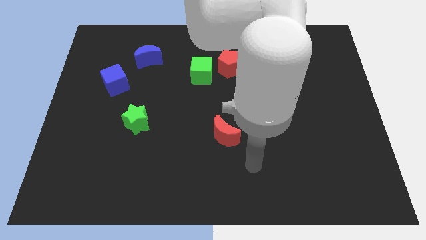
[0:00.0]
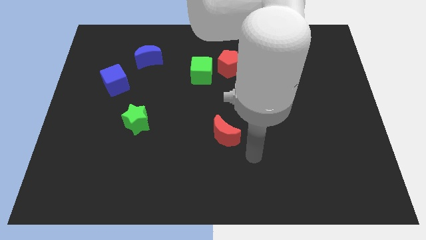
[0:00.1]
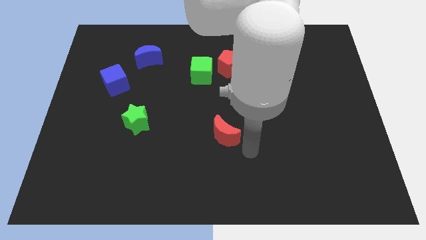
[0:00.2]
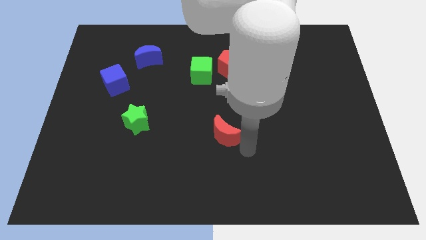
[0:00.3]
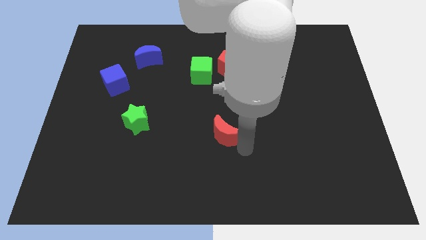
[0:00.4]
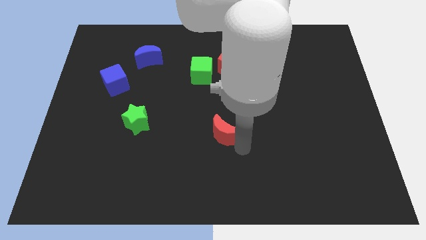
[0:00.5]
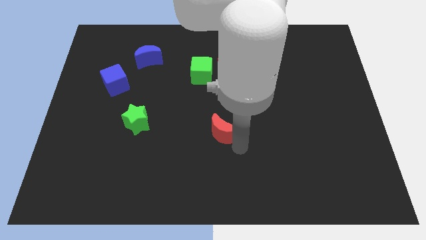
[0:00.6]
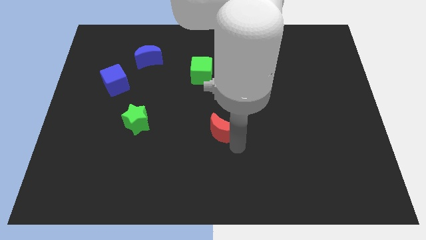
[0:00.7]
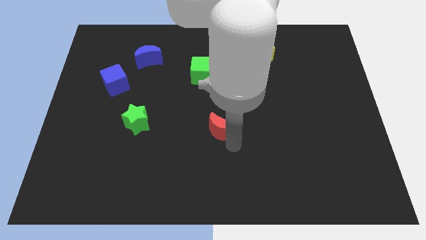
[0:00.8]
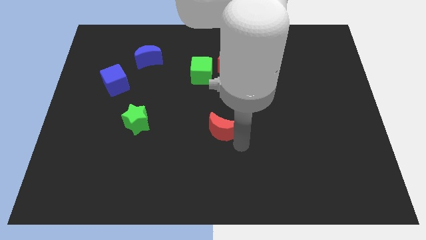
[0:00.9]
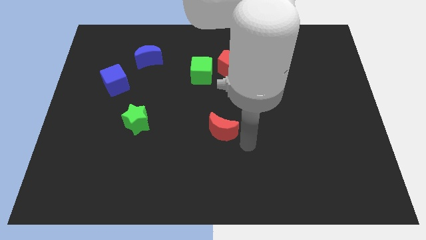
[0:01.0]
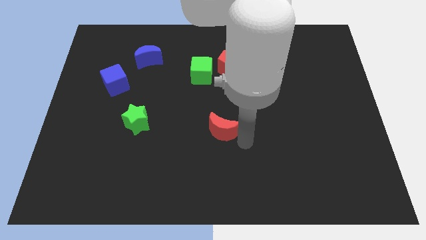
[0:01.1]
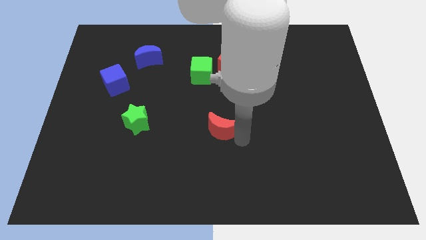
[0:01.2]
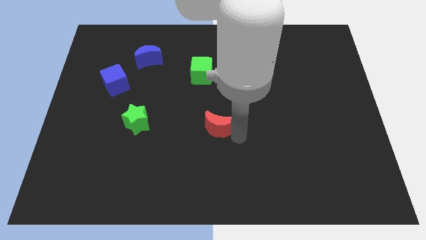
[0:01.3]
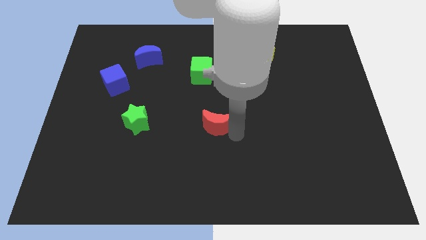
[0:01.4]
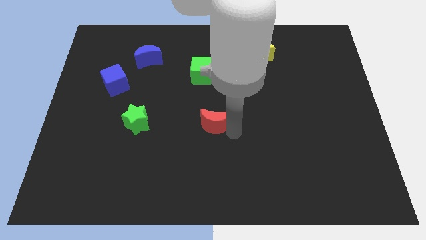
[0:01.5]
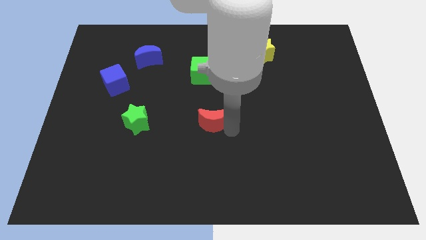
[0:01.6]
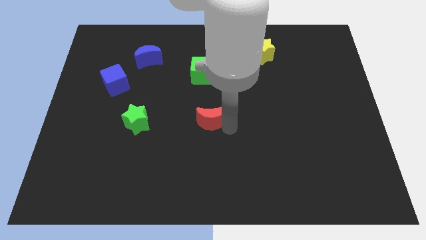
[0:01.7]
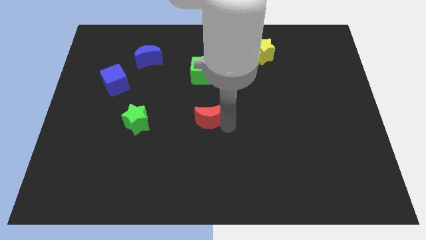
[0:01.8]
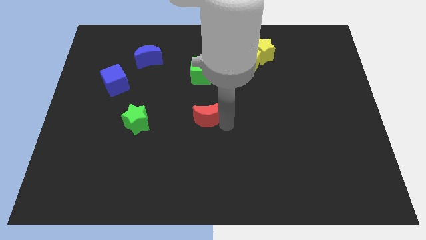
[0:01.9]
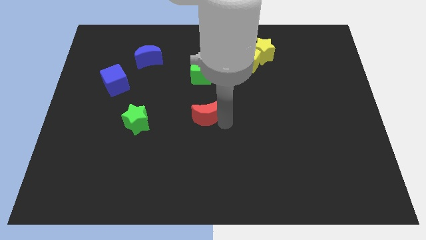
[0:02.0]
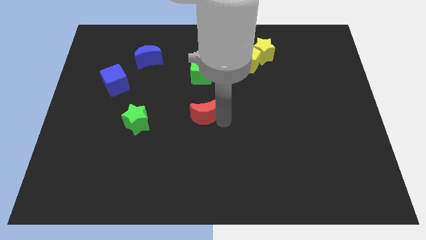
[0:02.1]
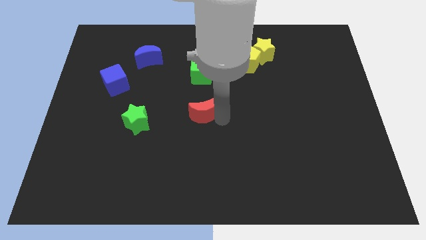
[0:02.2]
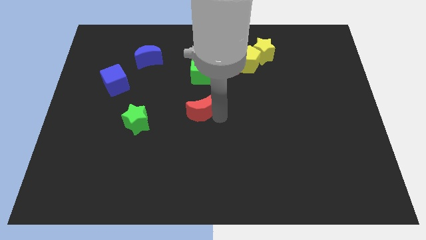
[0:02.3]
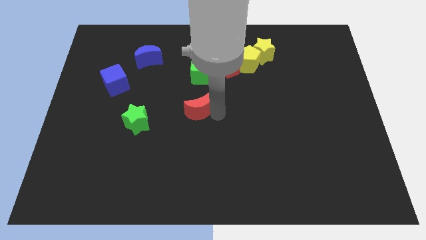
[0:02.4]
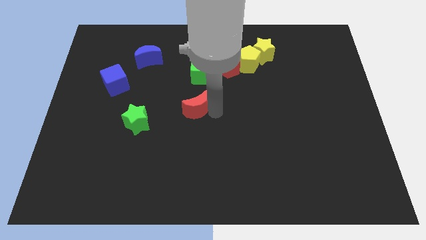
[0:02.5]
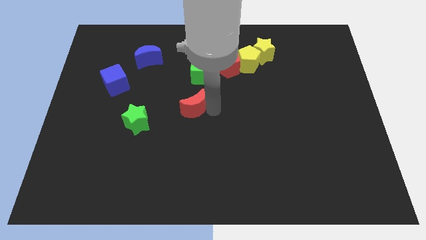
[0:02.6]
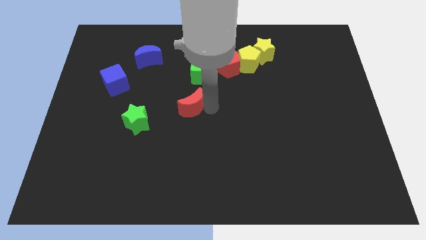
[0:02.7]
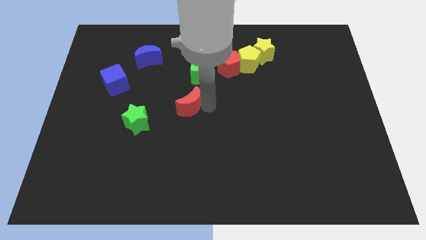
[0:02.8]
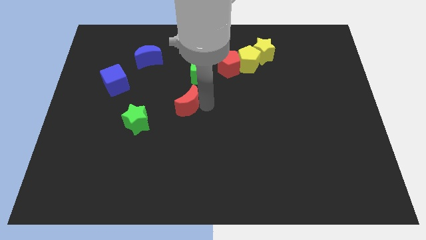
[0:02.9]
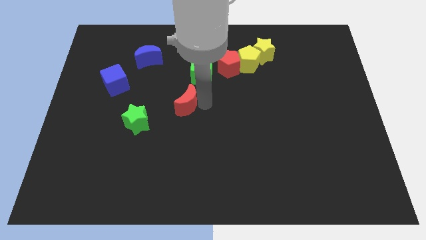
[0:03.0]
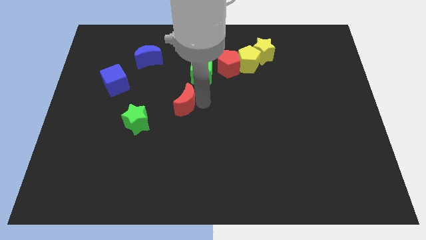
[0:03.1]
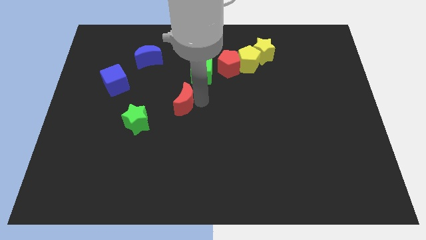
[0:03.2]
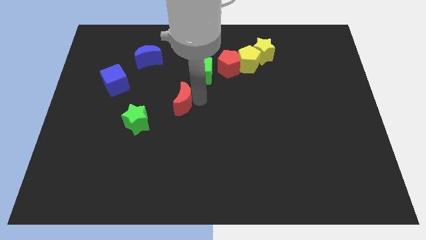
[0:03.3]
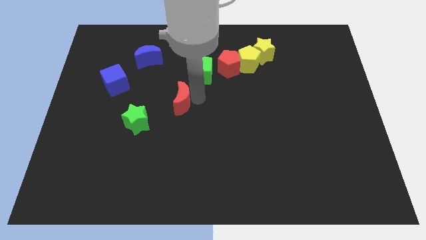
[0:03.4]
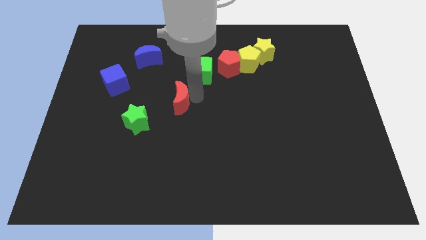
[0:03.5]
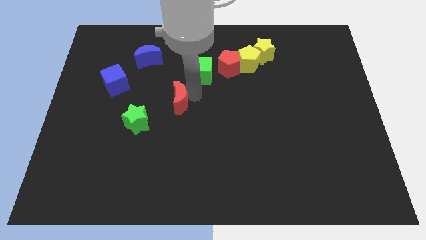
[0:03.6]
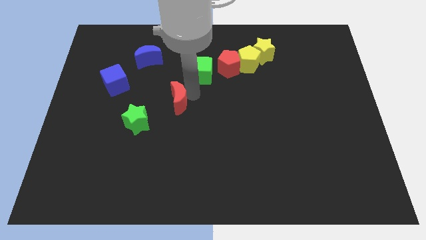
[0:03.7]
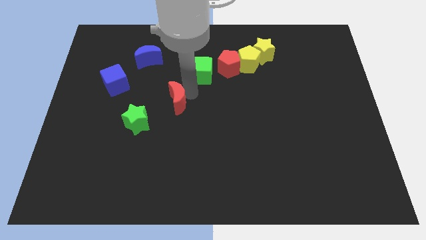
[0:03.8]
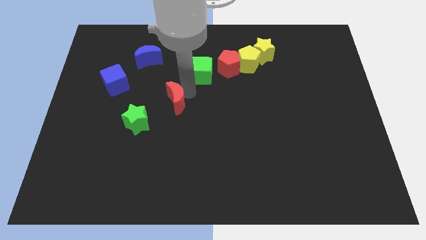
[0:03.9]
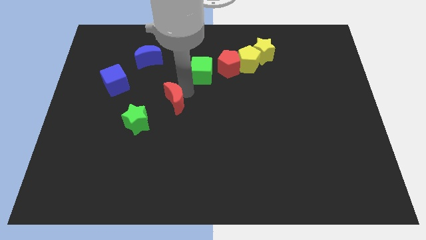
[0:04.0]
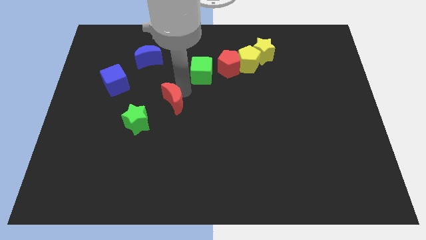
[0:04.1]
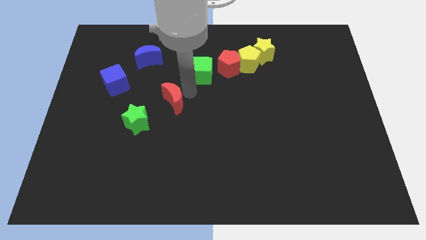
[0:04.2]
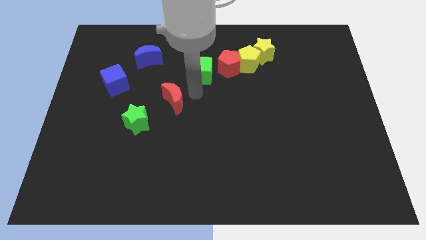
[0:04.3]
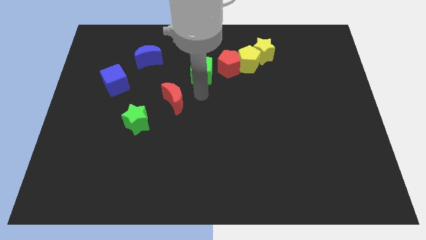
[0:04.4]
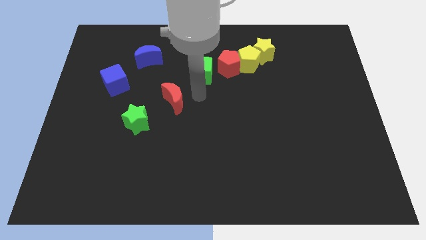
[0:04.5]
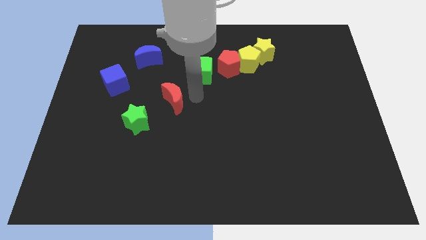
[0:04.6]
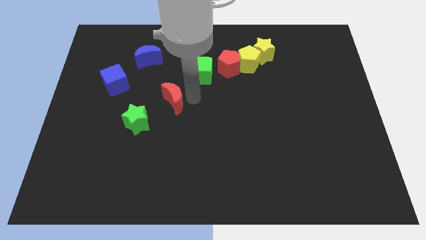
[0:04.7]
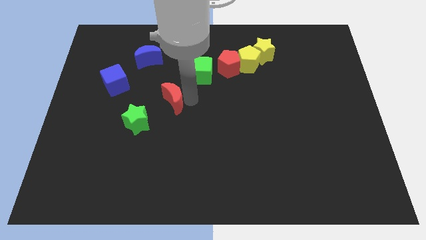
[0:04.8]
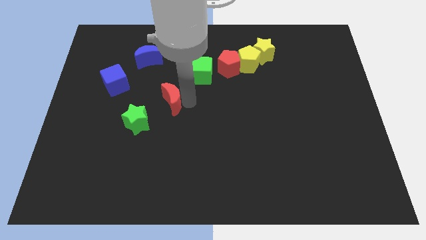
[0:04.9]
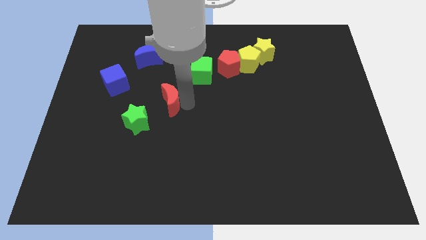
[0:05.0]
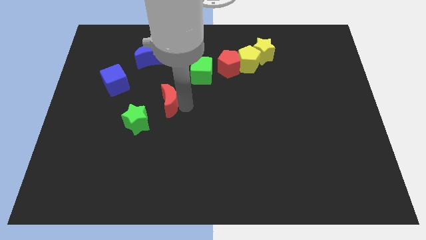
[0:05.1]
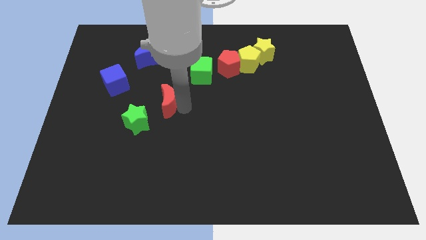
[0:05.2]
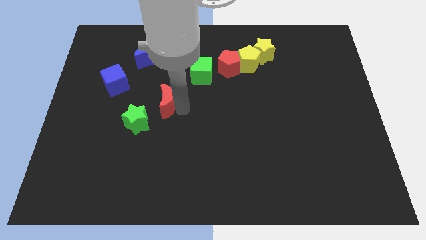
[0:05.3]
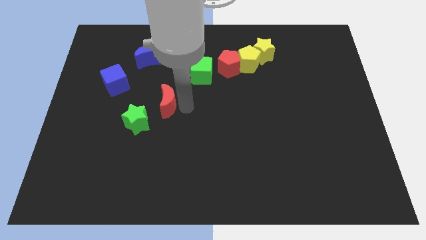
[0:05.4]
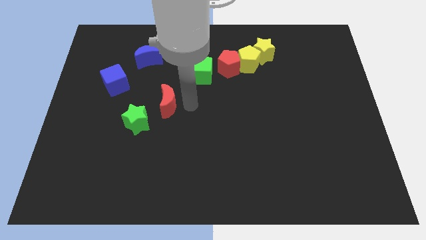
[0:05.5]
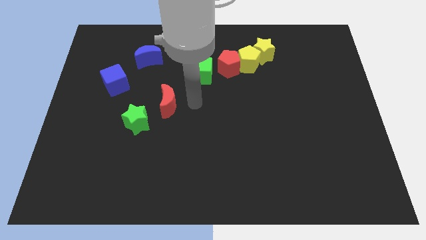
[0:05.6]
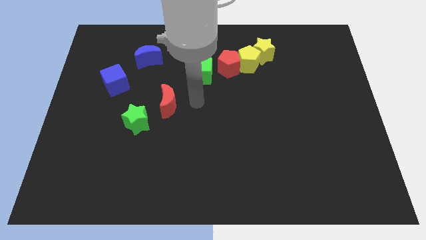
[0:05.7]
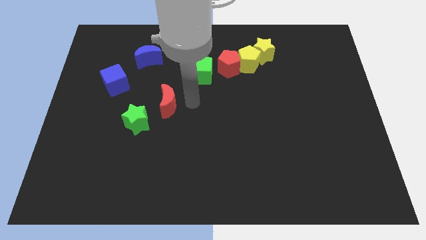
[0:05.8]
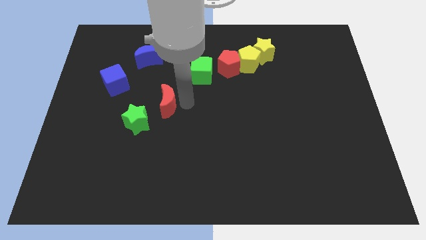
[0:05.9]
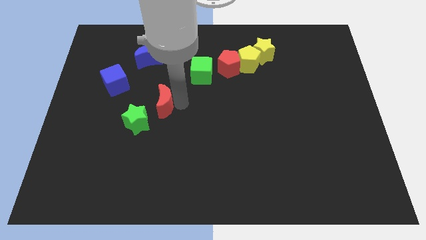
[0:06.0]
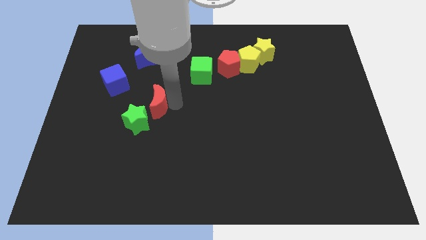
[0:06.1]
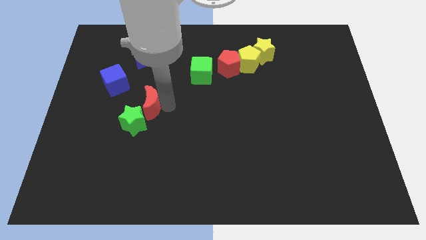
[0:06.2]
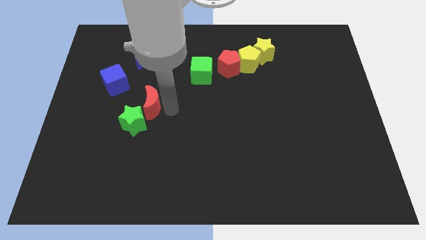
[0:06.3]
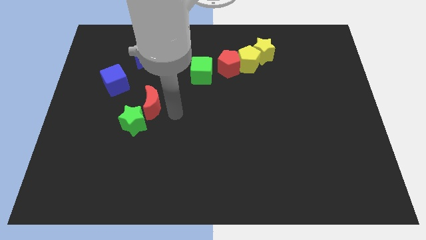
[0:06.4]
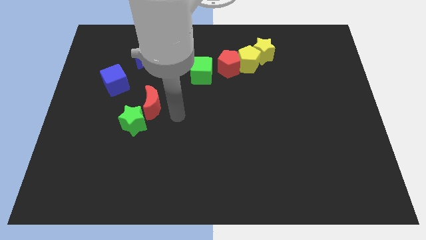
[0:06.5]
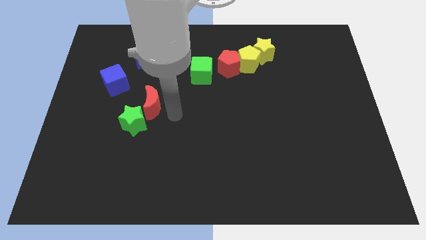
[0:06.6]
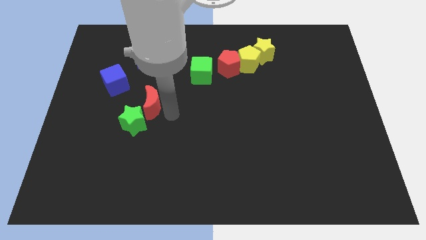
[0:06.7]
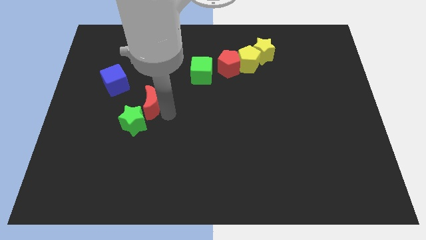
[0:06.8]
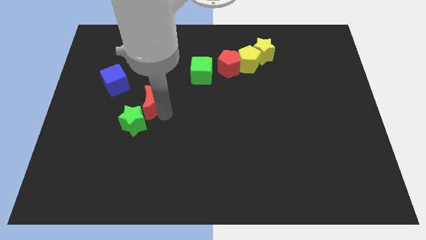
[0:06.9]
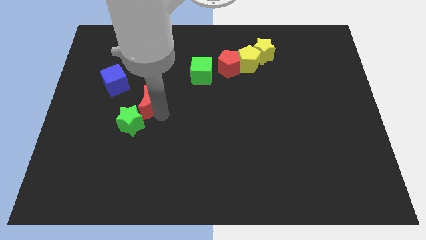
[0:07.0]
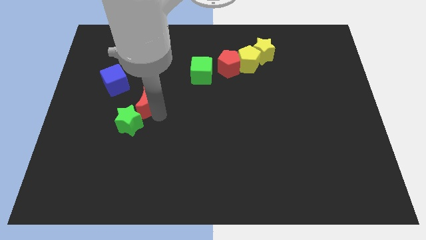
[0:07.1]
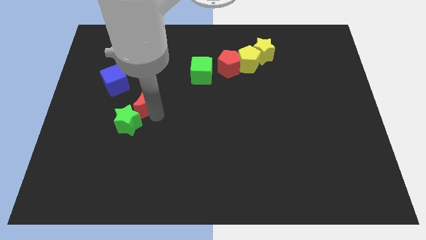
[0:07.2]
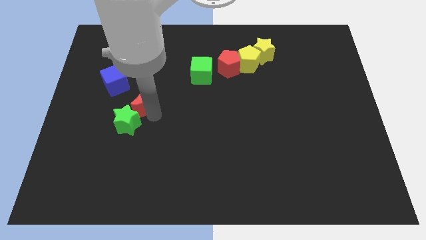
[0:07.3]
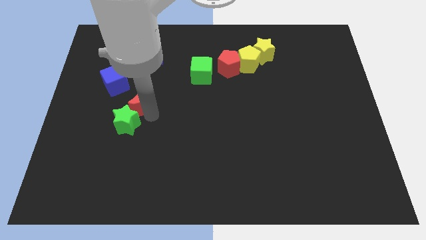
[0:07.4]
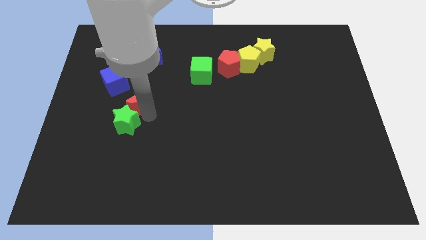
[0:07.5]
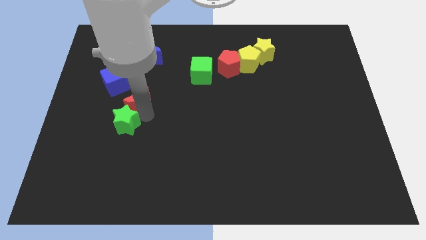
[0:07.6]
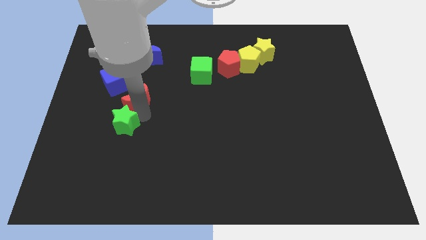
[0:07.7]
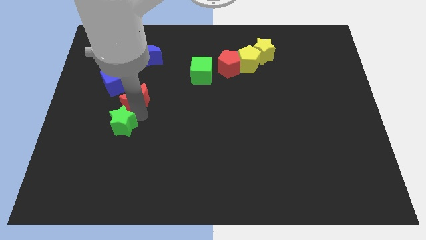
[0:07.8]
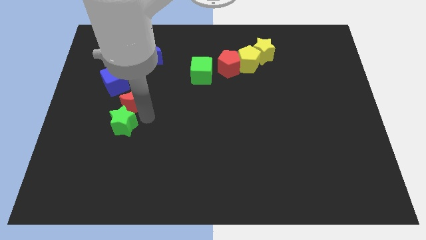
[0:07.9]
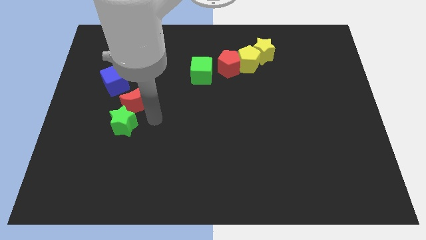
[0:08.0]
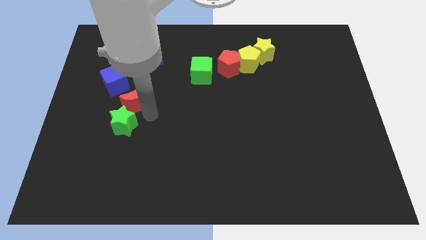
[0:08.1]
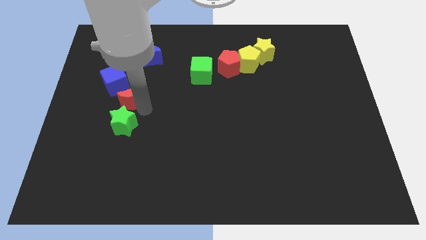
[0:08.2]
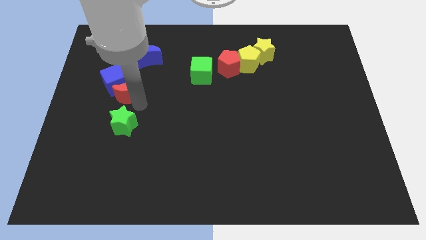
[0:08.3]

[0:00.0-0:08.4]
slide the red moon towards the blue cube
